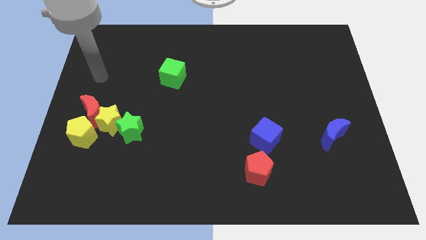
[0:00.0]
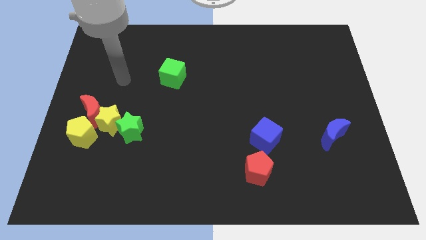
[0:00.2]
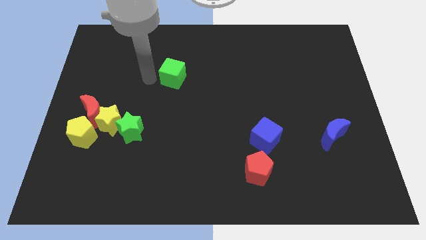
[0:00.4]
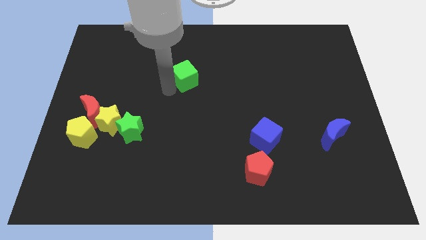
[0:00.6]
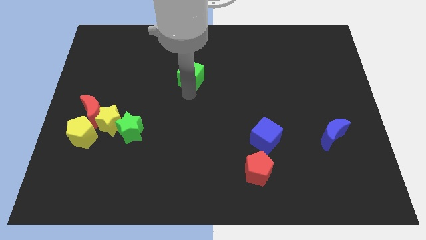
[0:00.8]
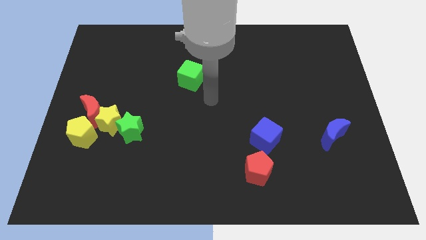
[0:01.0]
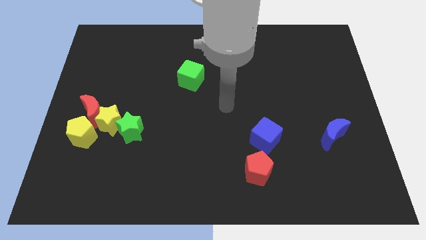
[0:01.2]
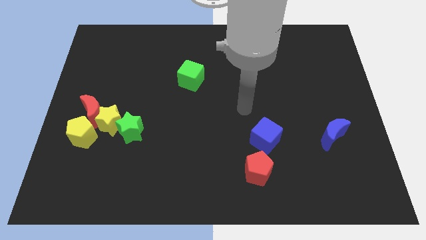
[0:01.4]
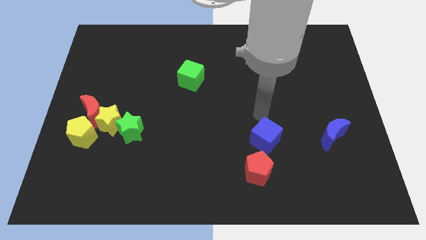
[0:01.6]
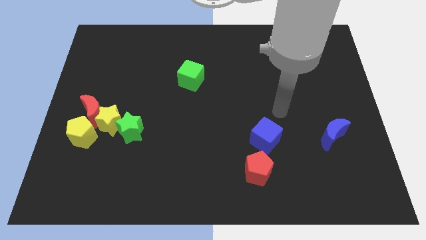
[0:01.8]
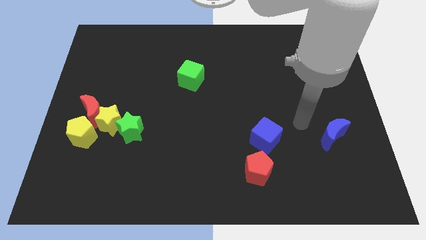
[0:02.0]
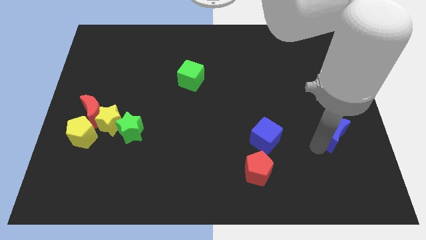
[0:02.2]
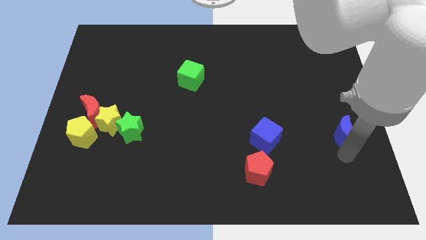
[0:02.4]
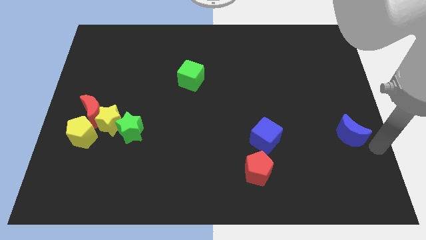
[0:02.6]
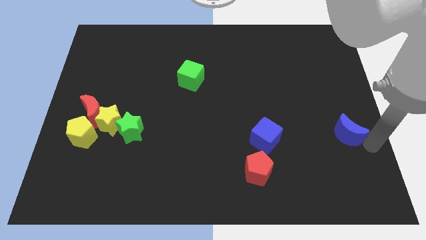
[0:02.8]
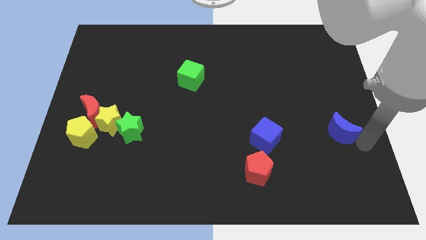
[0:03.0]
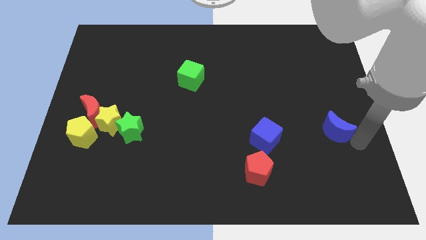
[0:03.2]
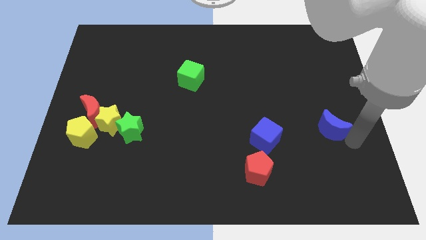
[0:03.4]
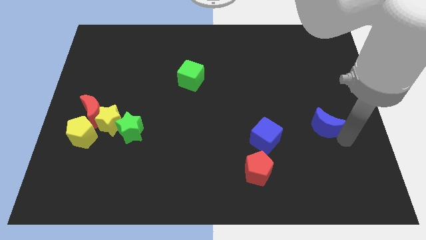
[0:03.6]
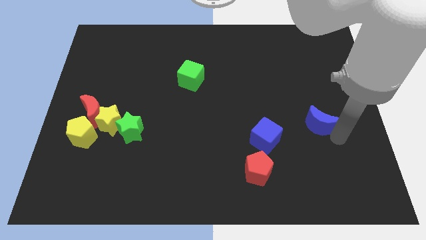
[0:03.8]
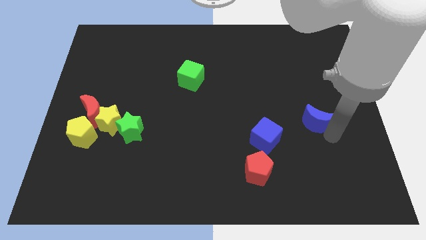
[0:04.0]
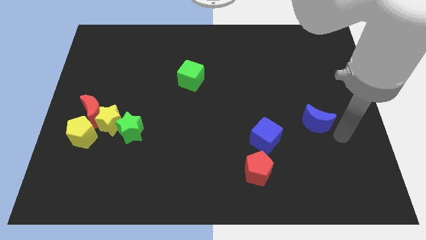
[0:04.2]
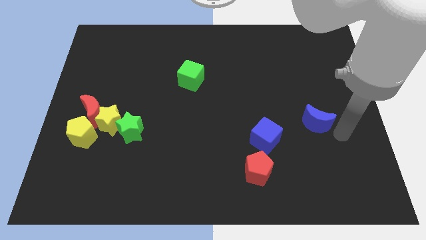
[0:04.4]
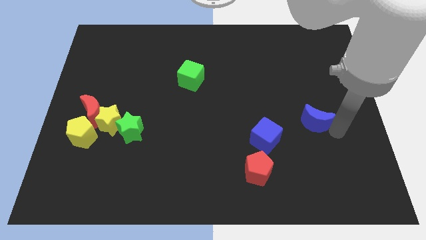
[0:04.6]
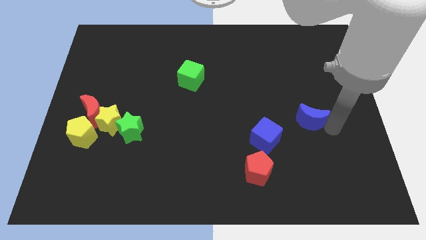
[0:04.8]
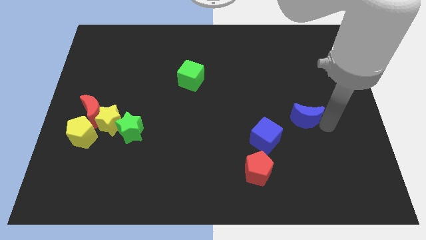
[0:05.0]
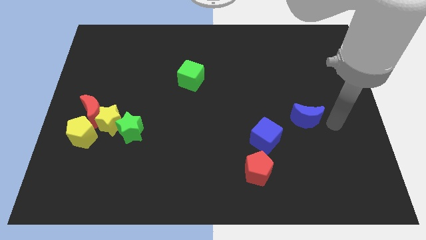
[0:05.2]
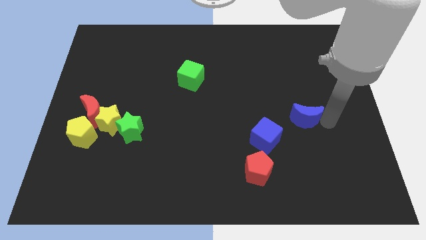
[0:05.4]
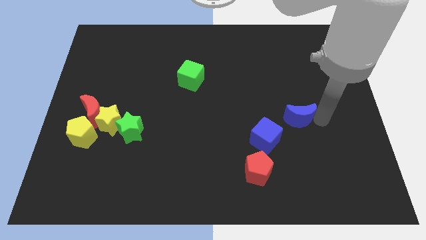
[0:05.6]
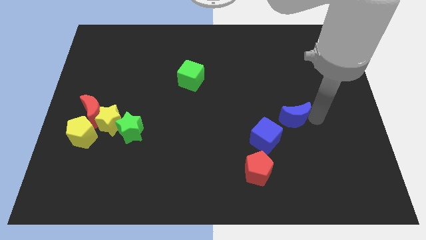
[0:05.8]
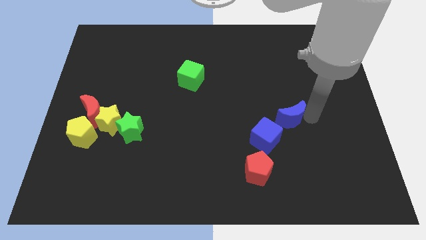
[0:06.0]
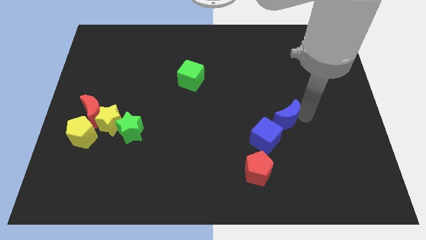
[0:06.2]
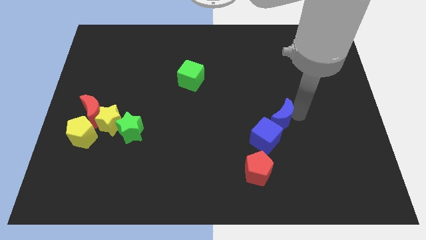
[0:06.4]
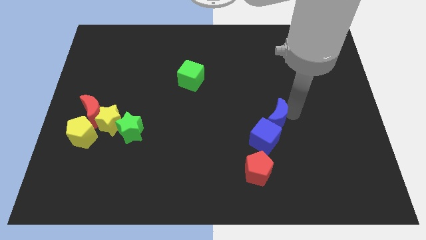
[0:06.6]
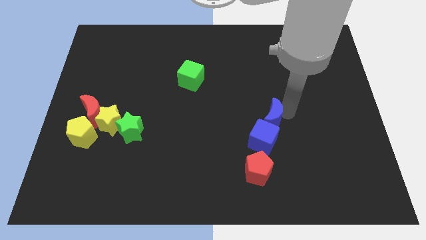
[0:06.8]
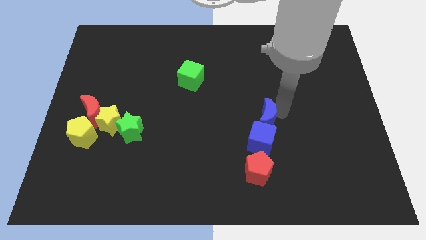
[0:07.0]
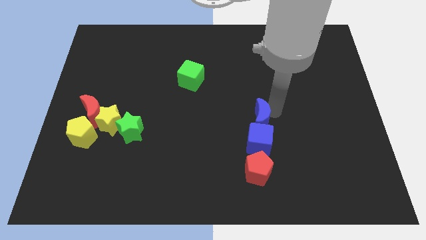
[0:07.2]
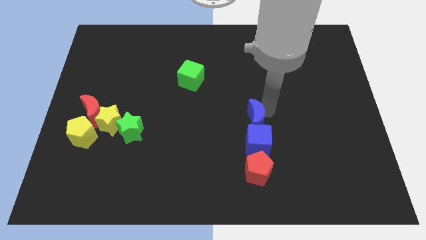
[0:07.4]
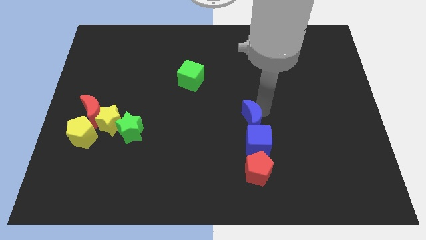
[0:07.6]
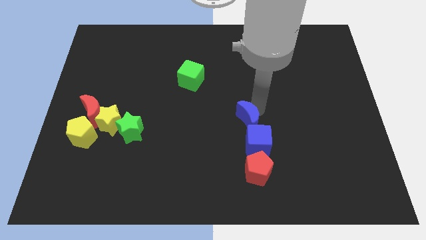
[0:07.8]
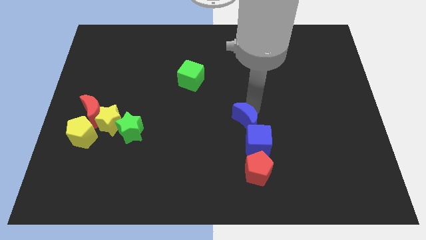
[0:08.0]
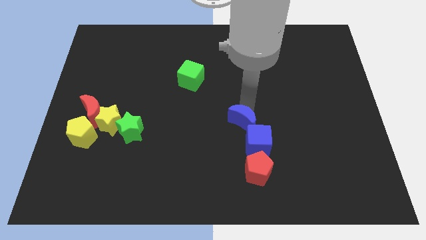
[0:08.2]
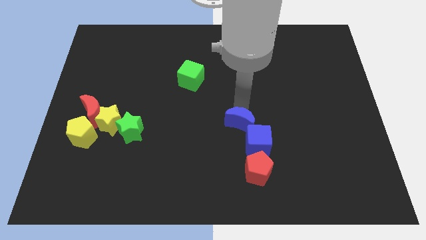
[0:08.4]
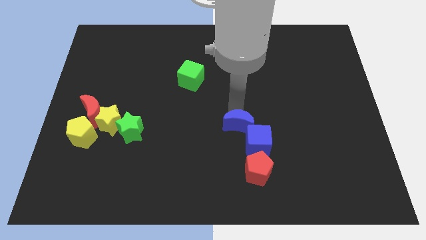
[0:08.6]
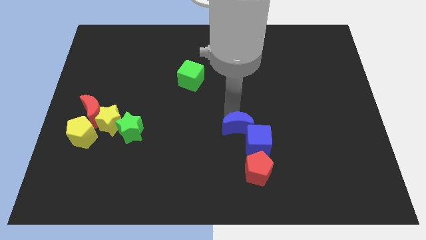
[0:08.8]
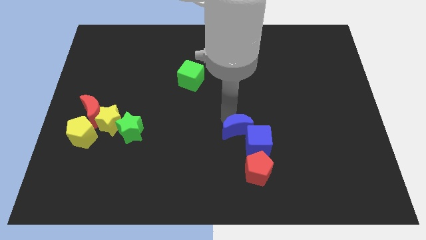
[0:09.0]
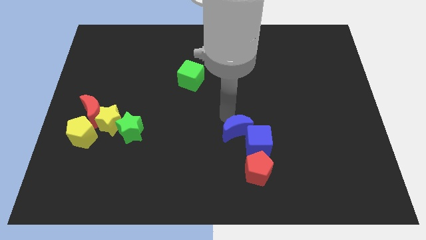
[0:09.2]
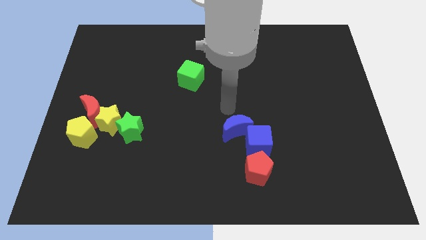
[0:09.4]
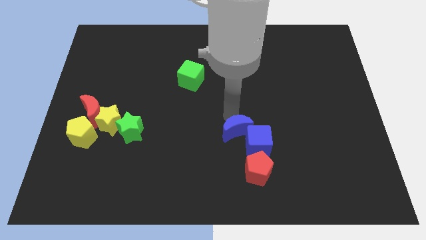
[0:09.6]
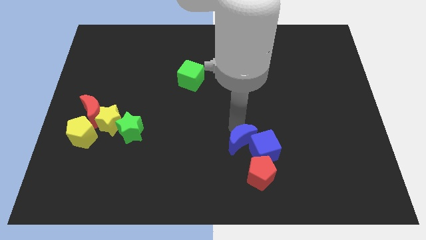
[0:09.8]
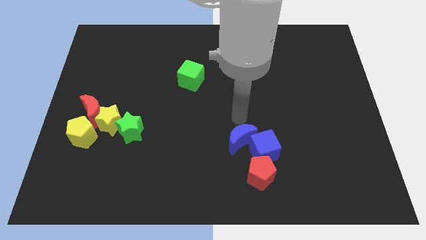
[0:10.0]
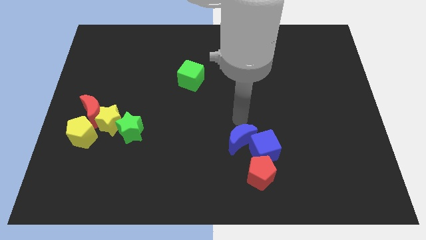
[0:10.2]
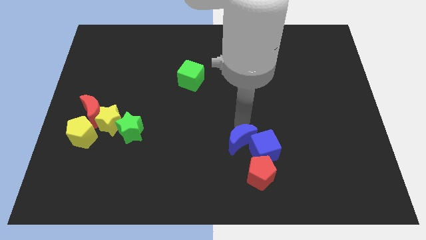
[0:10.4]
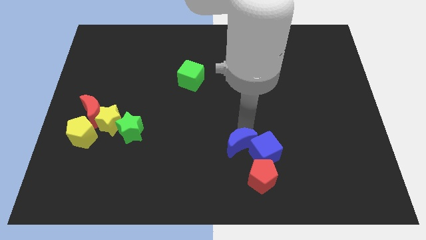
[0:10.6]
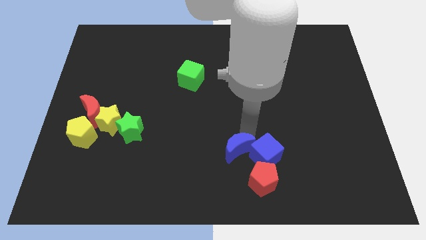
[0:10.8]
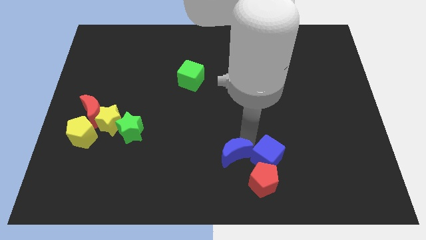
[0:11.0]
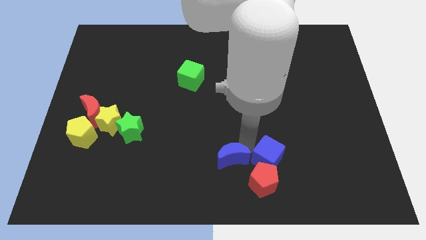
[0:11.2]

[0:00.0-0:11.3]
move the blue moon to the bottom left side of the blue cube

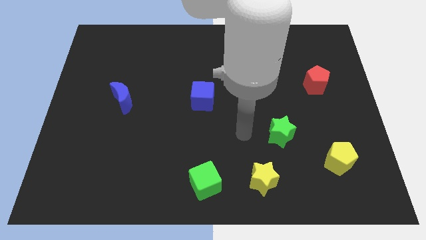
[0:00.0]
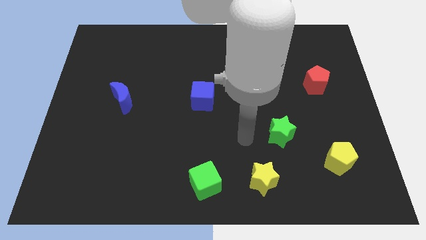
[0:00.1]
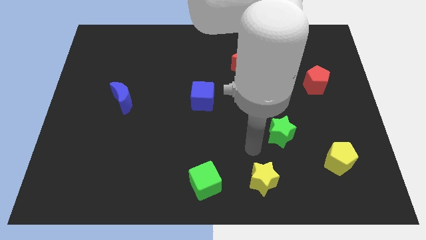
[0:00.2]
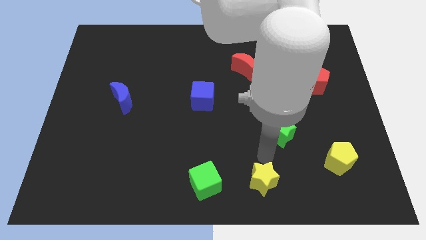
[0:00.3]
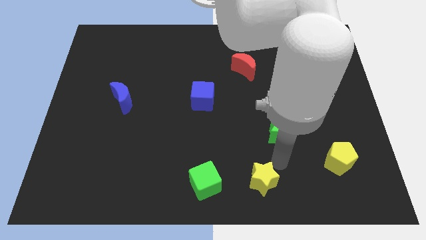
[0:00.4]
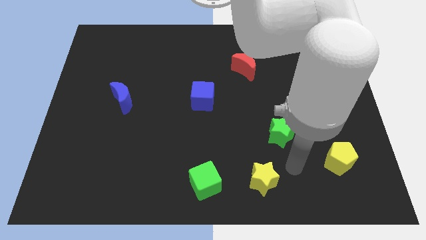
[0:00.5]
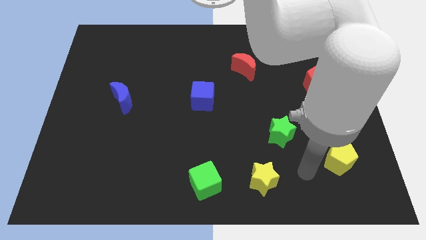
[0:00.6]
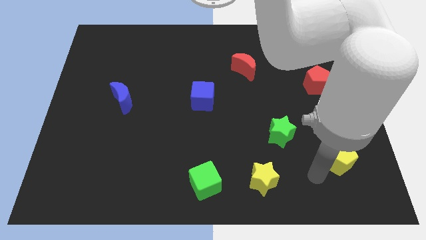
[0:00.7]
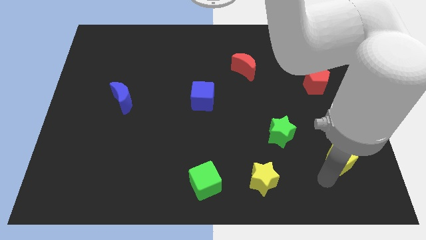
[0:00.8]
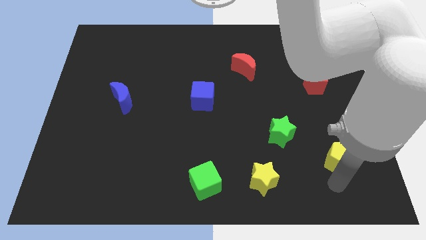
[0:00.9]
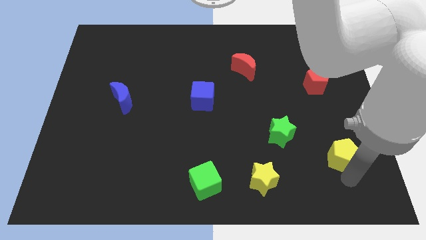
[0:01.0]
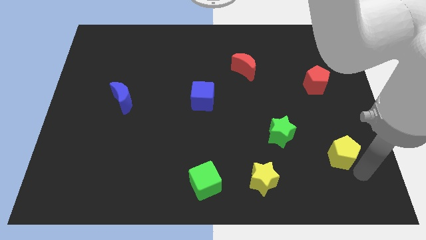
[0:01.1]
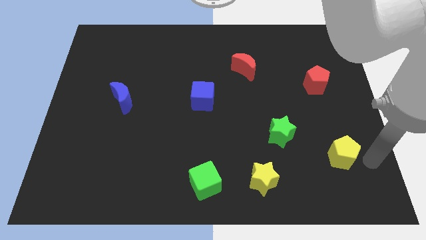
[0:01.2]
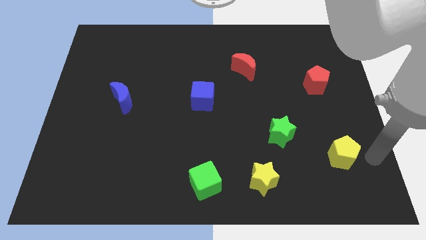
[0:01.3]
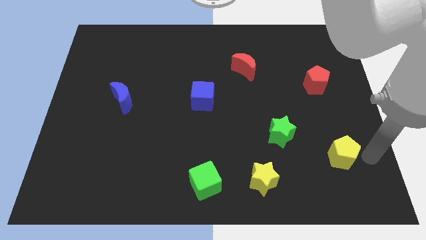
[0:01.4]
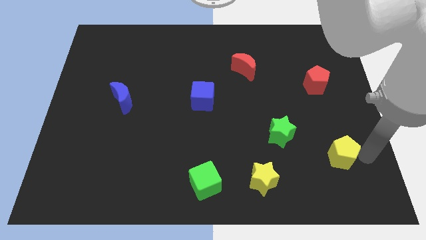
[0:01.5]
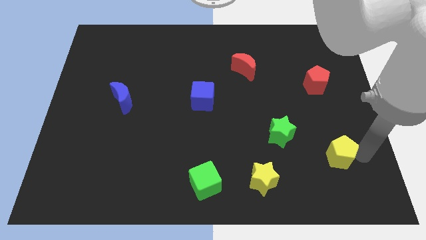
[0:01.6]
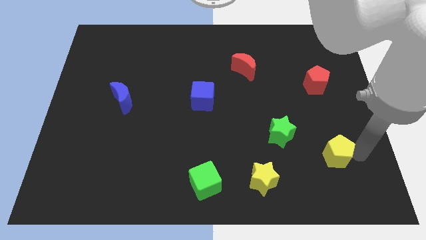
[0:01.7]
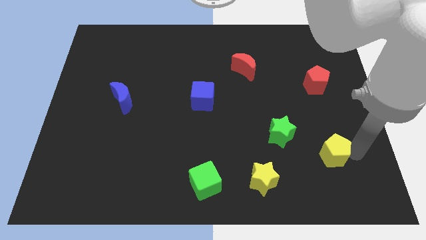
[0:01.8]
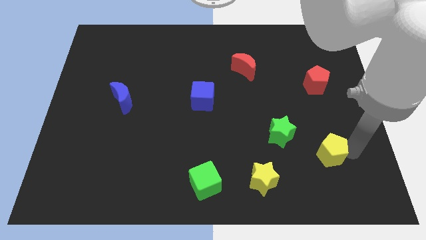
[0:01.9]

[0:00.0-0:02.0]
push the yellow pentagon diagonally down and to the right of the green star
